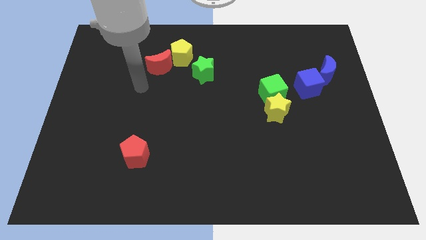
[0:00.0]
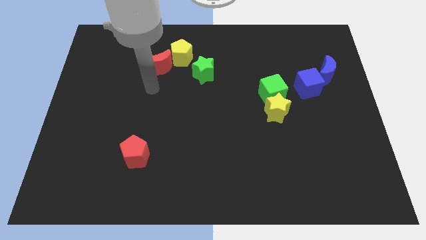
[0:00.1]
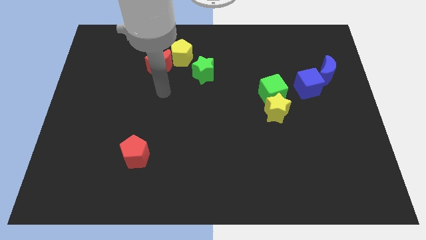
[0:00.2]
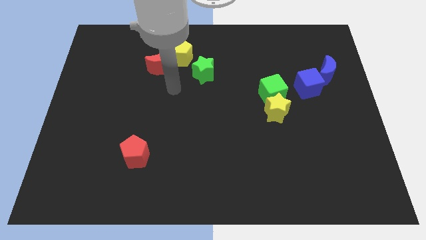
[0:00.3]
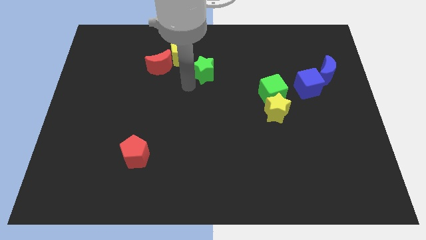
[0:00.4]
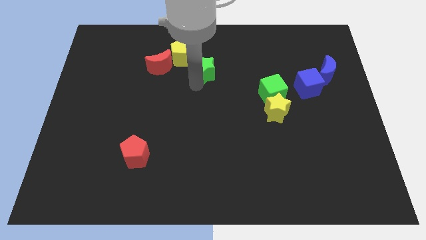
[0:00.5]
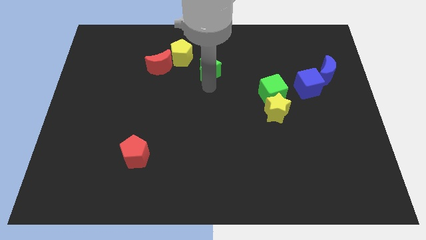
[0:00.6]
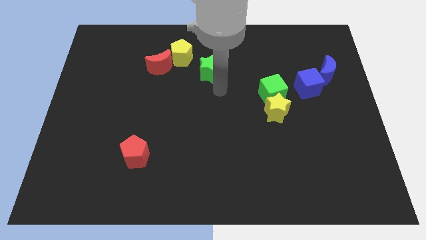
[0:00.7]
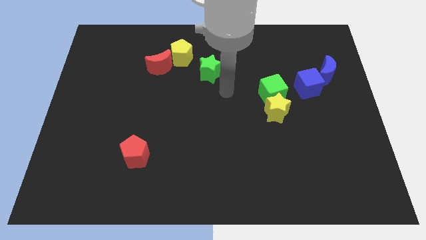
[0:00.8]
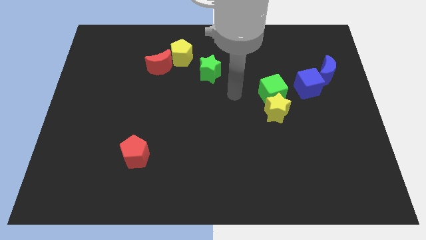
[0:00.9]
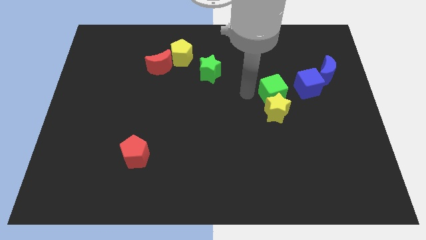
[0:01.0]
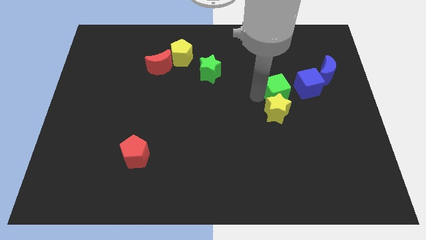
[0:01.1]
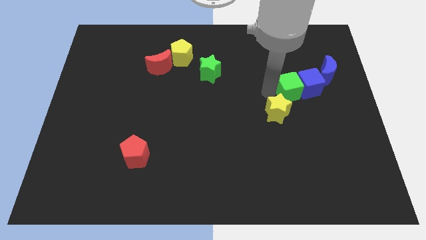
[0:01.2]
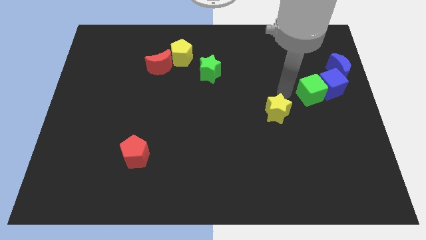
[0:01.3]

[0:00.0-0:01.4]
separate the yellow star from the green cube

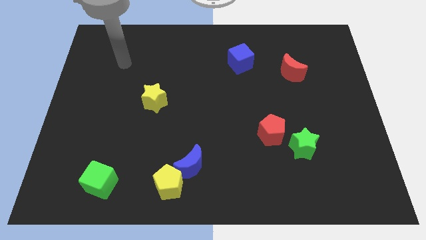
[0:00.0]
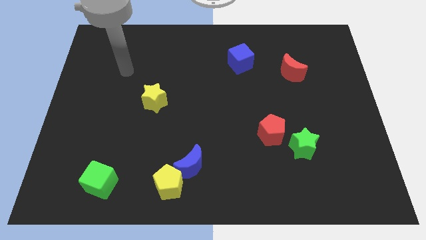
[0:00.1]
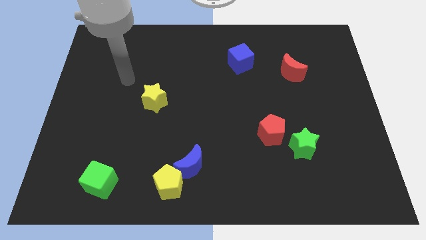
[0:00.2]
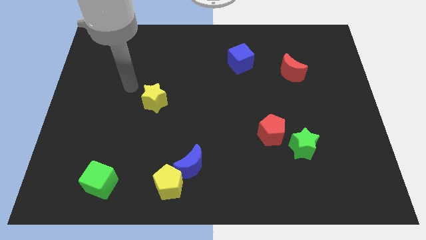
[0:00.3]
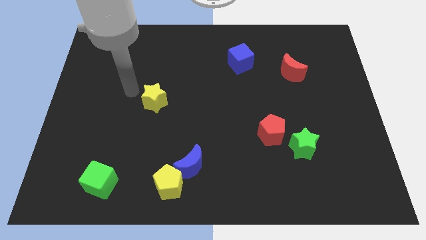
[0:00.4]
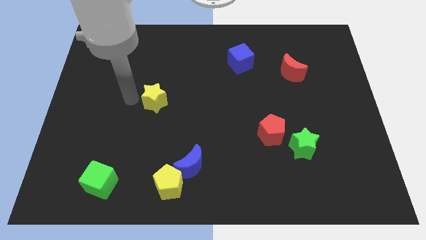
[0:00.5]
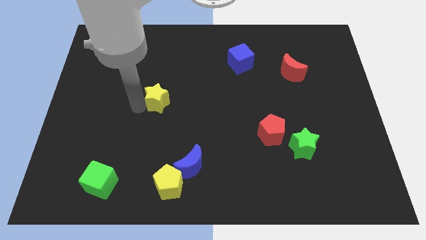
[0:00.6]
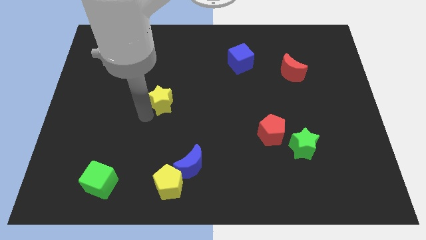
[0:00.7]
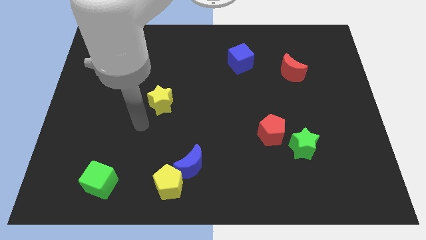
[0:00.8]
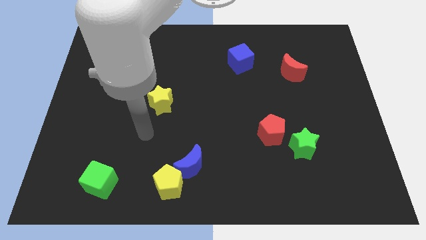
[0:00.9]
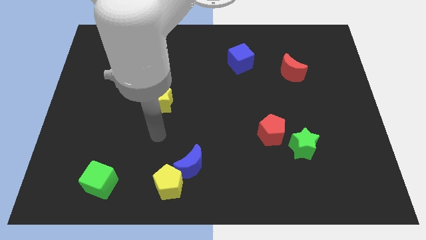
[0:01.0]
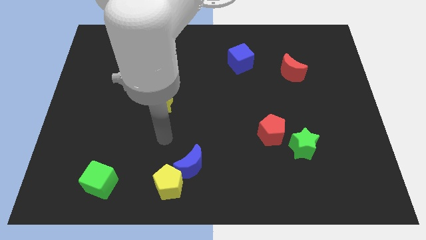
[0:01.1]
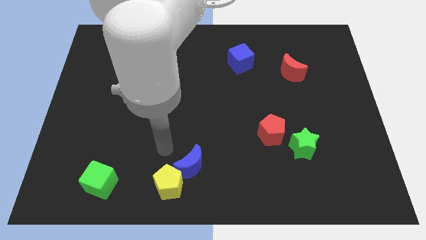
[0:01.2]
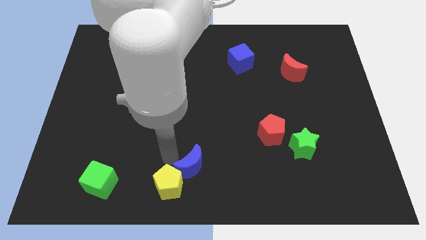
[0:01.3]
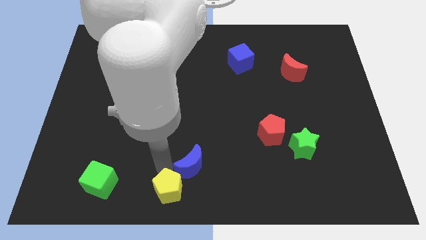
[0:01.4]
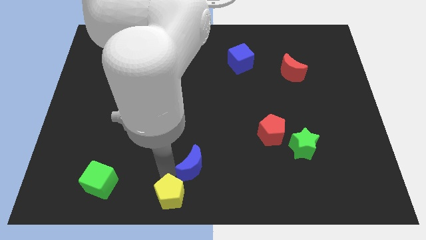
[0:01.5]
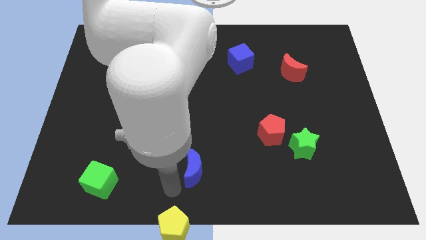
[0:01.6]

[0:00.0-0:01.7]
move the blue moon away from the yellow pentagon

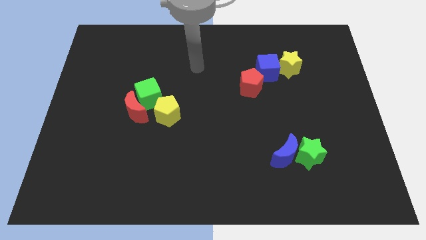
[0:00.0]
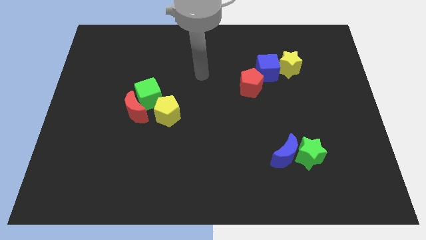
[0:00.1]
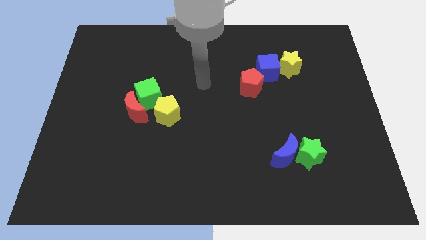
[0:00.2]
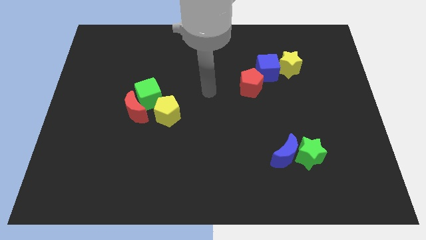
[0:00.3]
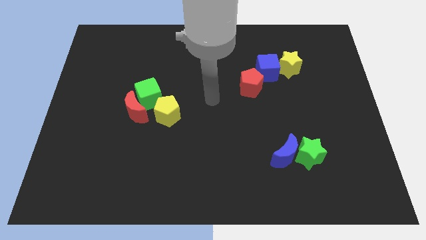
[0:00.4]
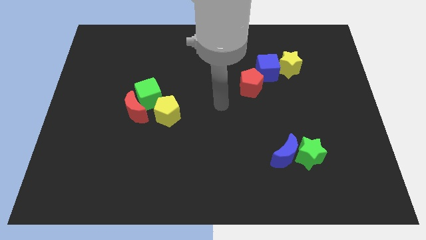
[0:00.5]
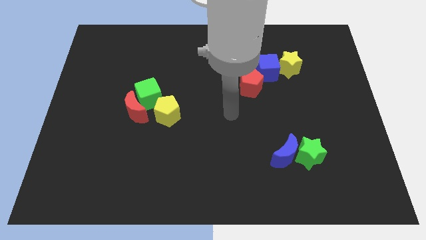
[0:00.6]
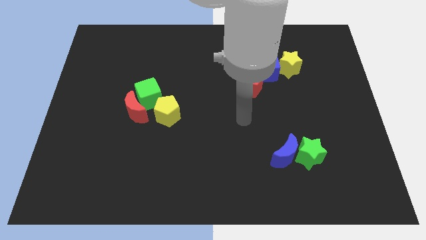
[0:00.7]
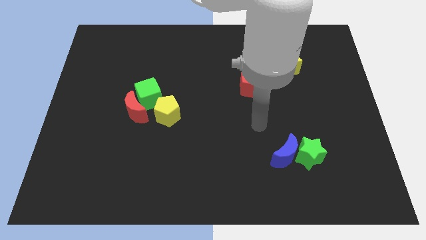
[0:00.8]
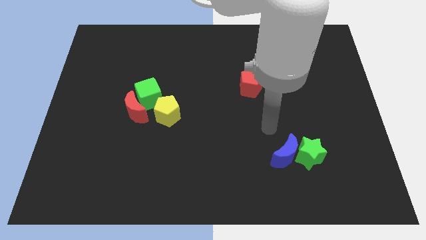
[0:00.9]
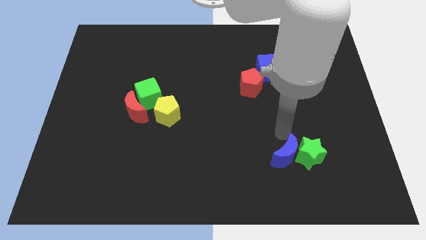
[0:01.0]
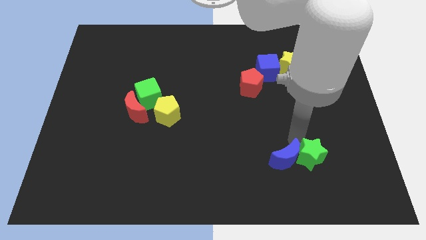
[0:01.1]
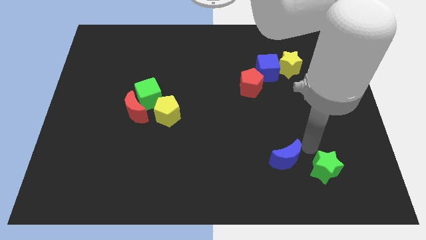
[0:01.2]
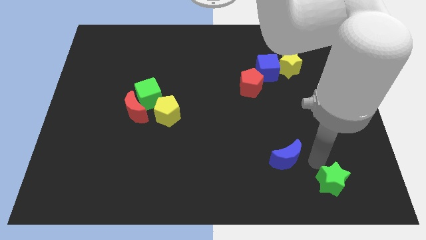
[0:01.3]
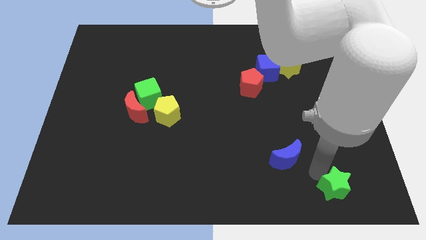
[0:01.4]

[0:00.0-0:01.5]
move the blue moon away from the green star

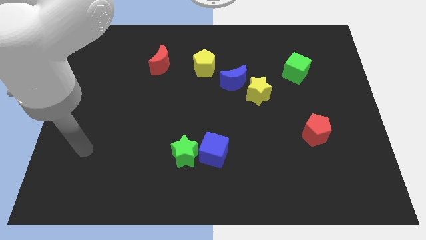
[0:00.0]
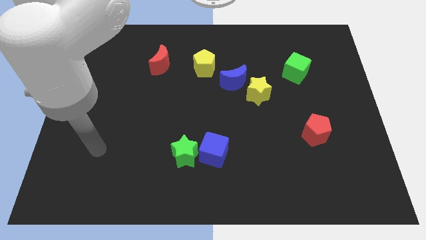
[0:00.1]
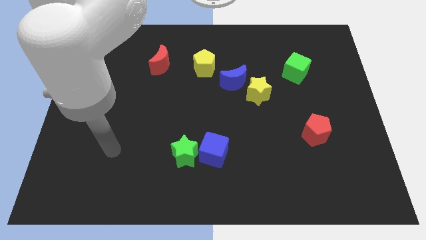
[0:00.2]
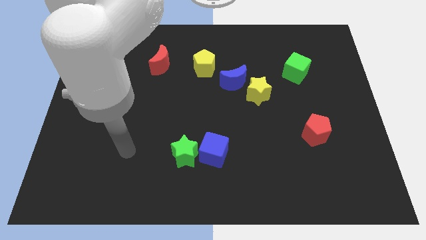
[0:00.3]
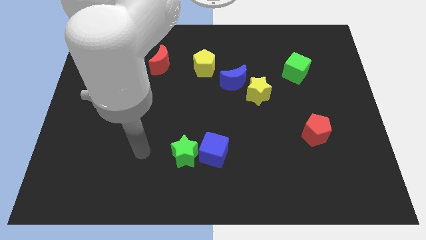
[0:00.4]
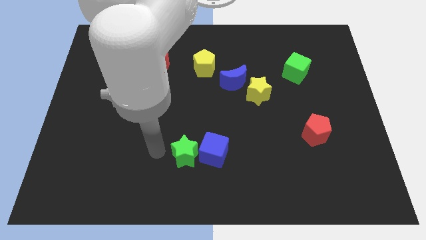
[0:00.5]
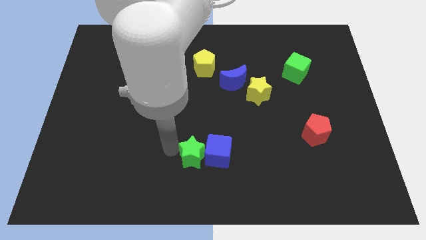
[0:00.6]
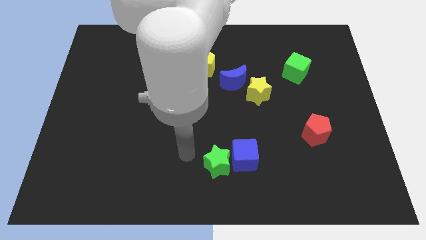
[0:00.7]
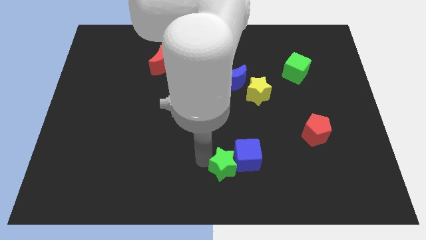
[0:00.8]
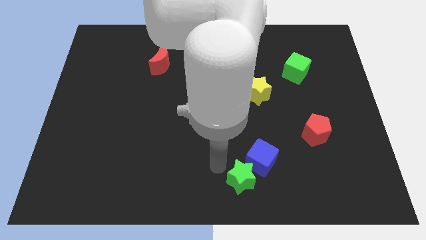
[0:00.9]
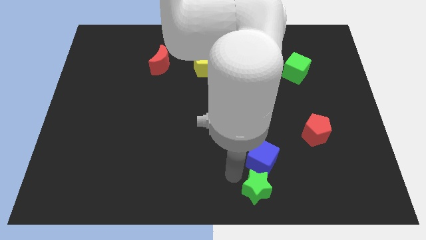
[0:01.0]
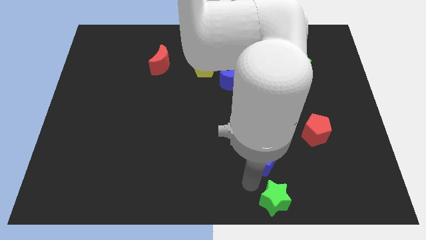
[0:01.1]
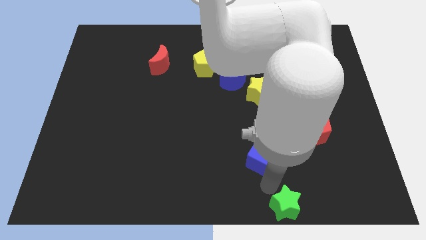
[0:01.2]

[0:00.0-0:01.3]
move the blue cube away from the green star

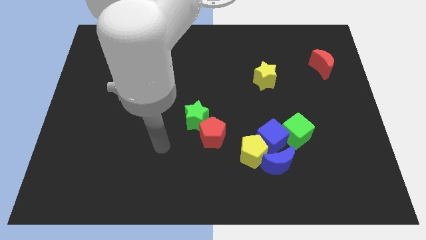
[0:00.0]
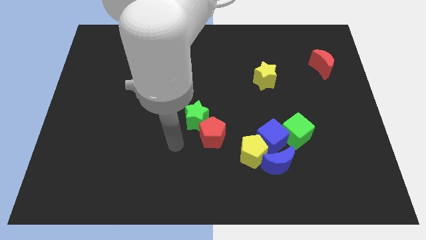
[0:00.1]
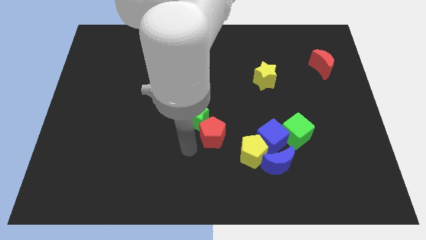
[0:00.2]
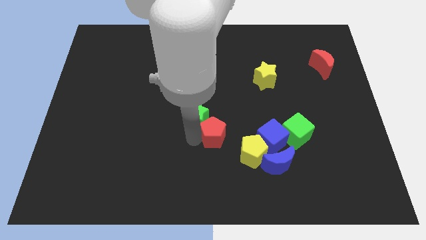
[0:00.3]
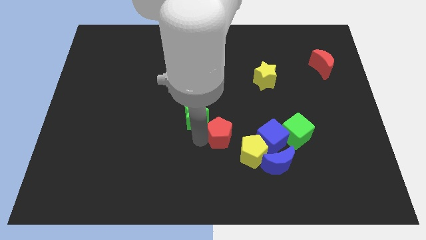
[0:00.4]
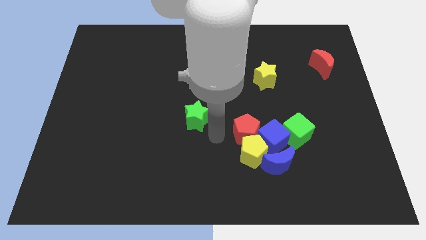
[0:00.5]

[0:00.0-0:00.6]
pull the green star apart from the red pentagon

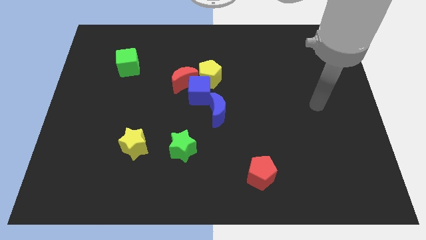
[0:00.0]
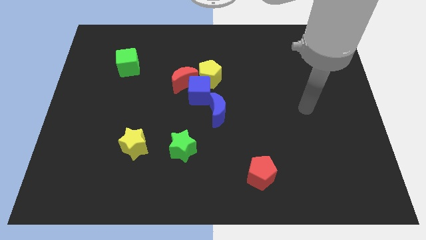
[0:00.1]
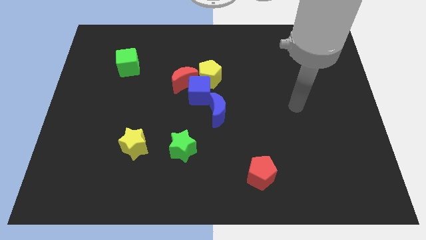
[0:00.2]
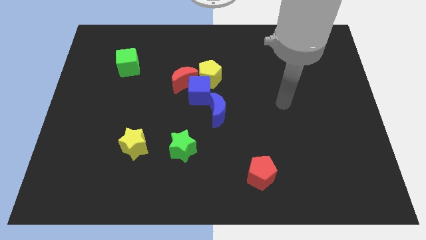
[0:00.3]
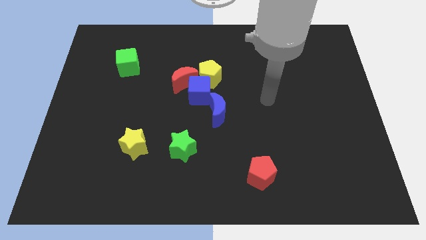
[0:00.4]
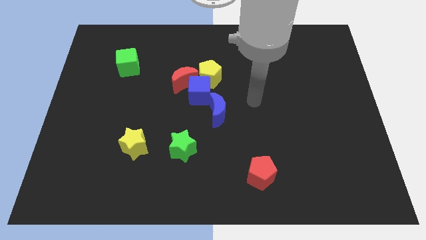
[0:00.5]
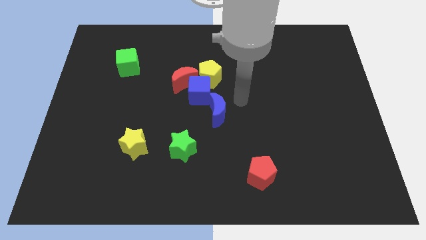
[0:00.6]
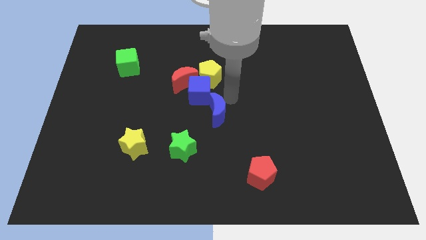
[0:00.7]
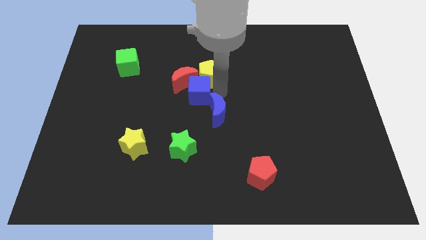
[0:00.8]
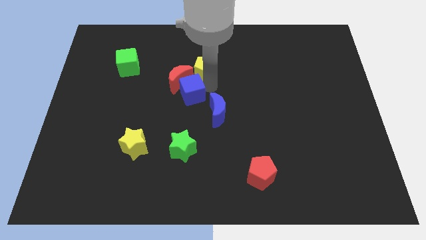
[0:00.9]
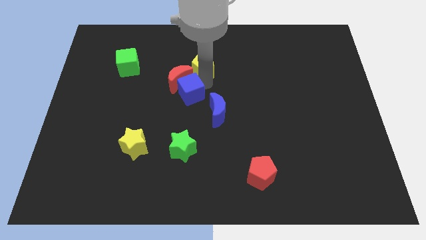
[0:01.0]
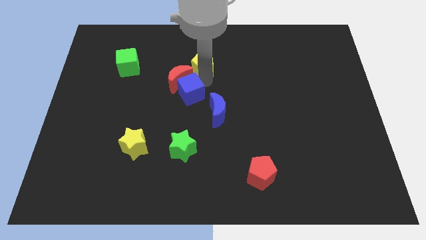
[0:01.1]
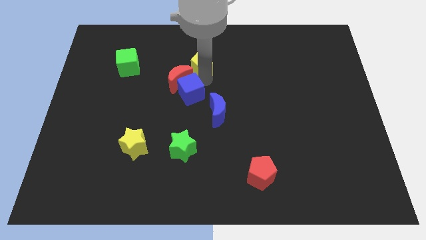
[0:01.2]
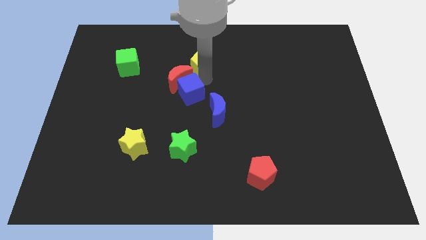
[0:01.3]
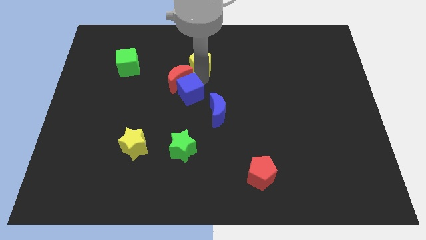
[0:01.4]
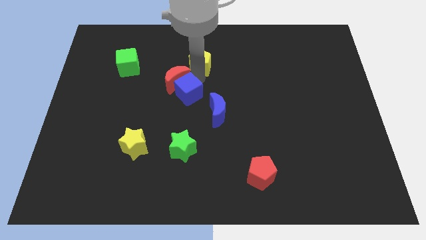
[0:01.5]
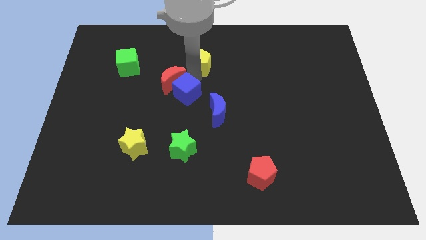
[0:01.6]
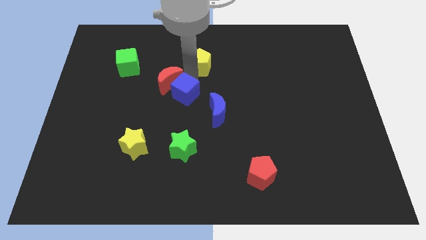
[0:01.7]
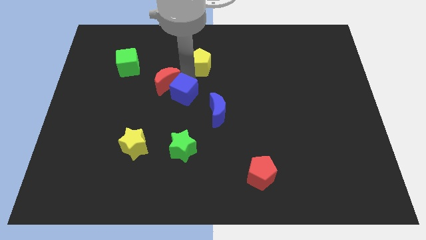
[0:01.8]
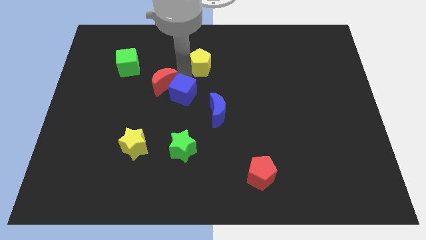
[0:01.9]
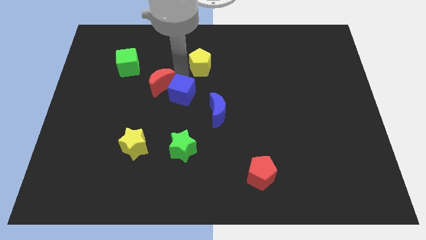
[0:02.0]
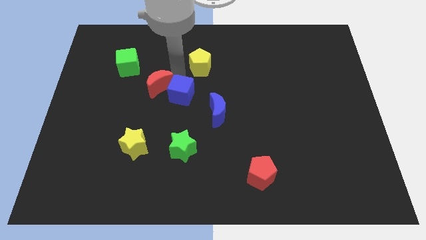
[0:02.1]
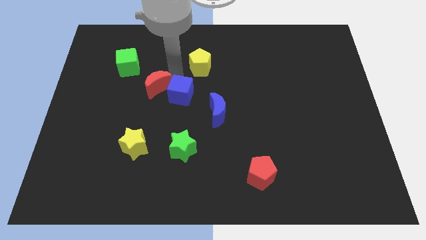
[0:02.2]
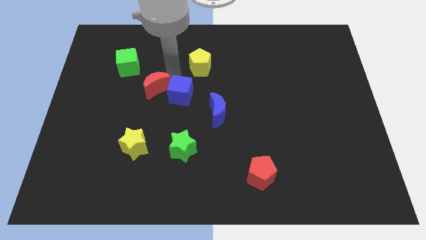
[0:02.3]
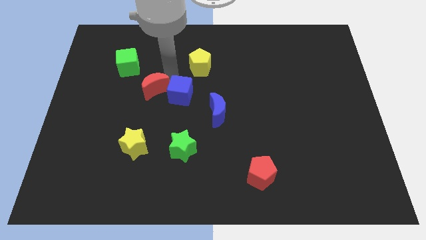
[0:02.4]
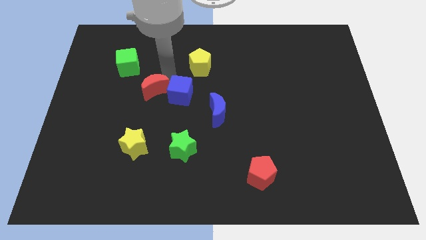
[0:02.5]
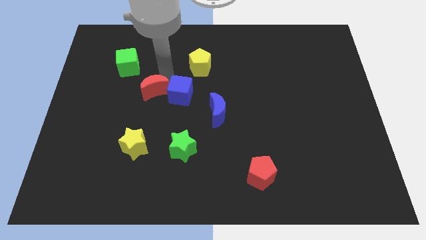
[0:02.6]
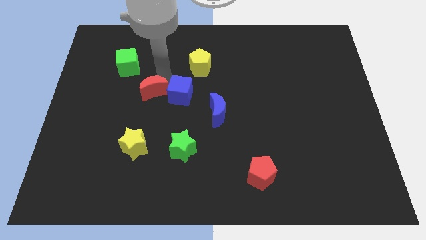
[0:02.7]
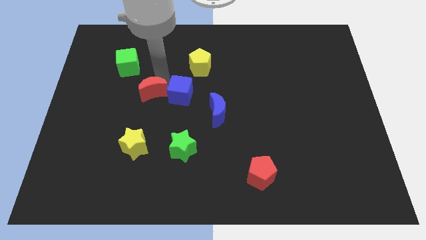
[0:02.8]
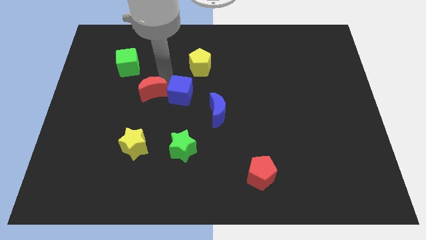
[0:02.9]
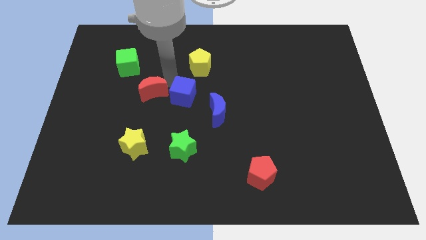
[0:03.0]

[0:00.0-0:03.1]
pull the red moon apart from the blue cube and yellow pentagon
